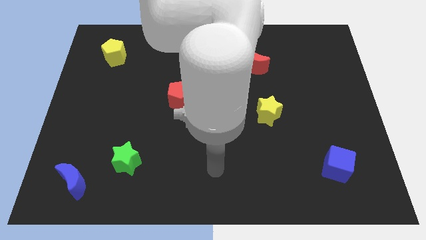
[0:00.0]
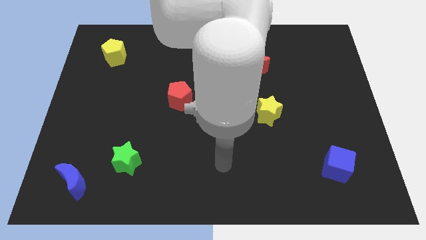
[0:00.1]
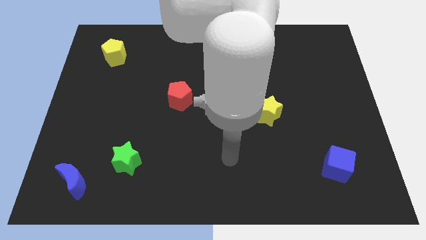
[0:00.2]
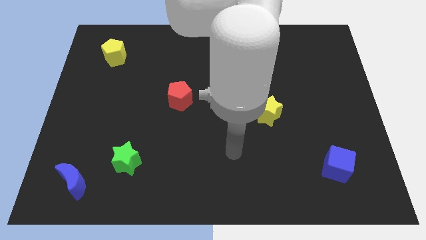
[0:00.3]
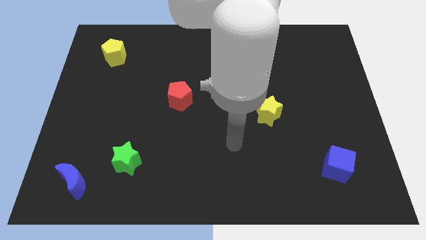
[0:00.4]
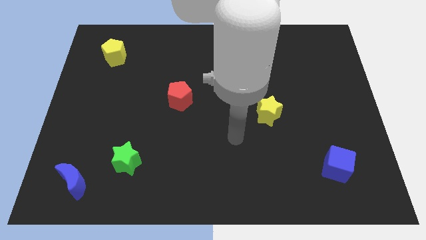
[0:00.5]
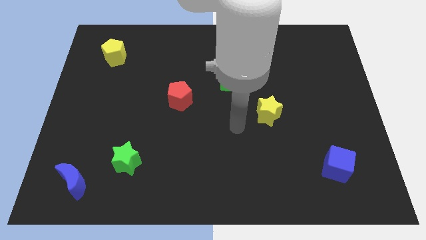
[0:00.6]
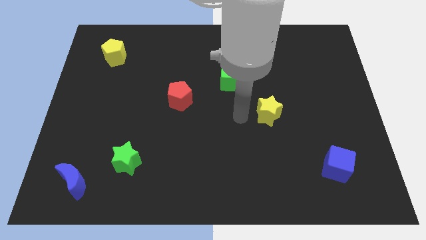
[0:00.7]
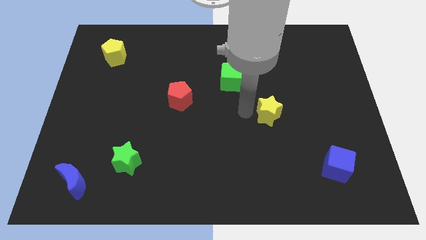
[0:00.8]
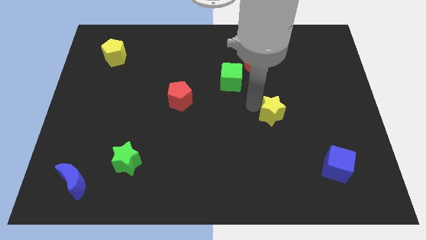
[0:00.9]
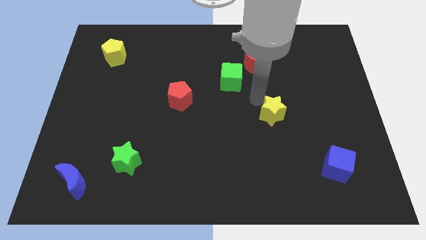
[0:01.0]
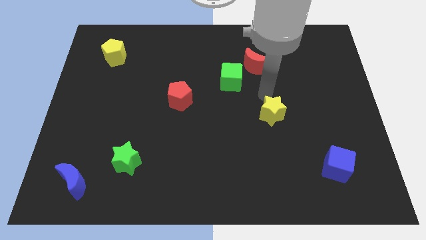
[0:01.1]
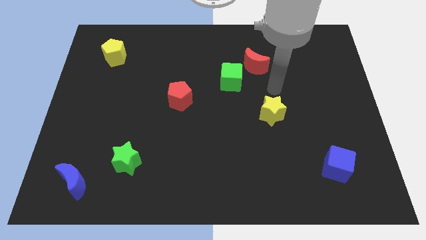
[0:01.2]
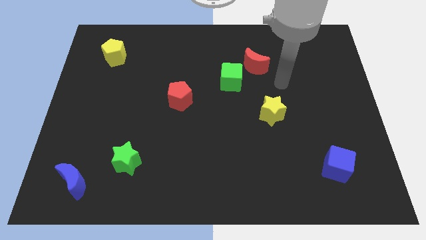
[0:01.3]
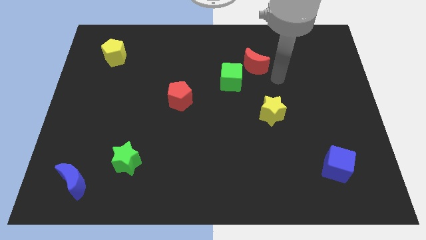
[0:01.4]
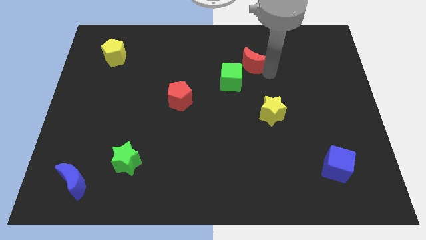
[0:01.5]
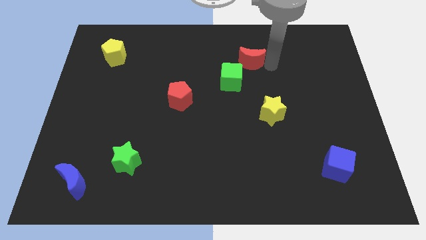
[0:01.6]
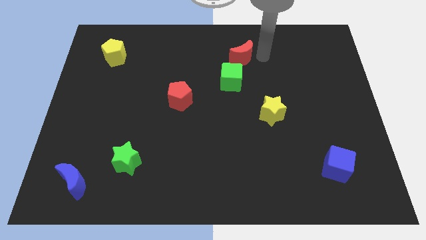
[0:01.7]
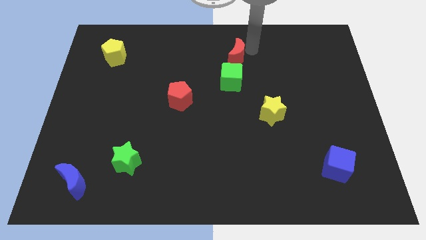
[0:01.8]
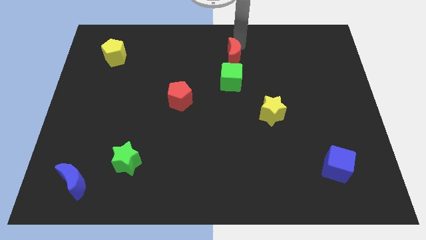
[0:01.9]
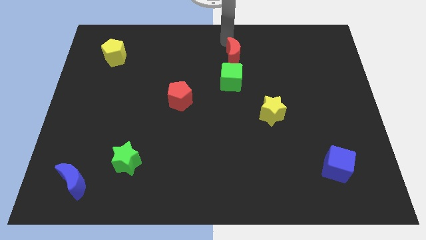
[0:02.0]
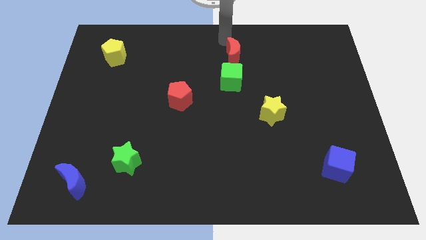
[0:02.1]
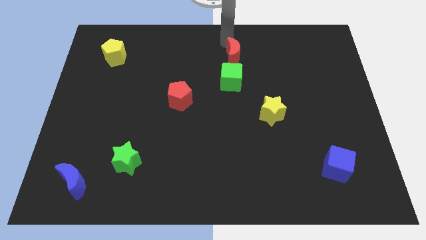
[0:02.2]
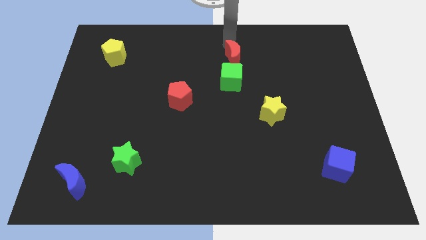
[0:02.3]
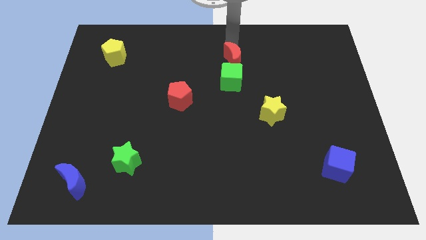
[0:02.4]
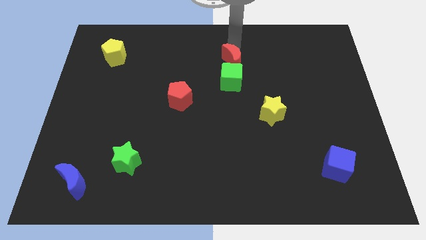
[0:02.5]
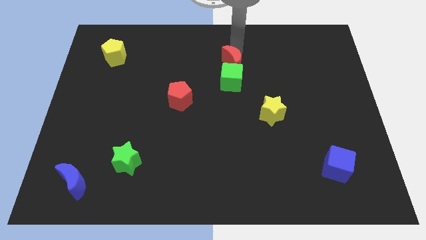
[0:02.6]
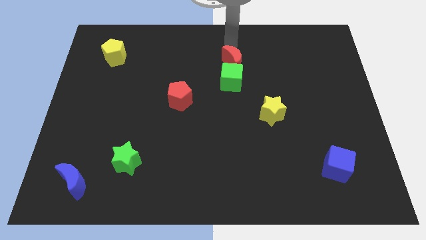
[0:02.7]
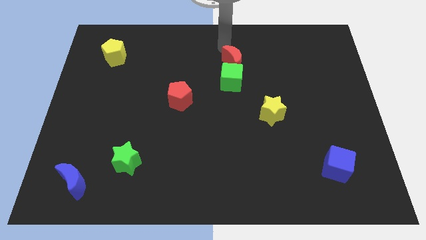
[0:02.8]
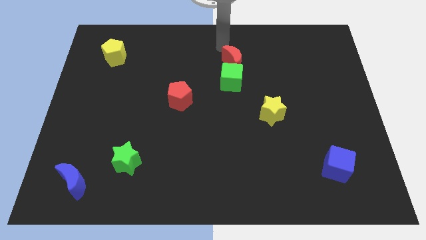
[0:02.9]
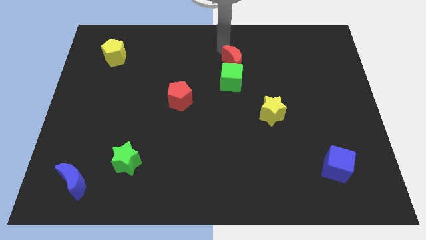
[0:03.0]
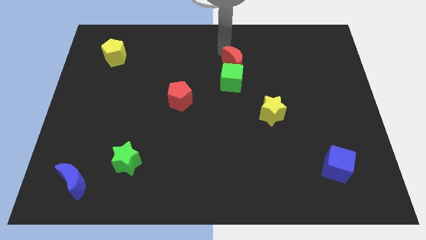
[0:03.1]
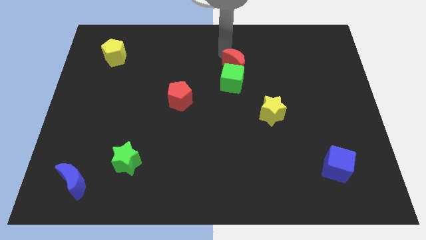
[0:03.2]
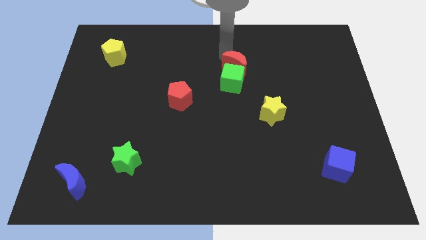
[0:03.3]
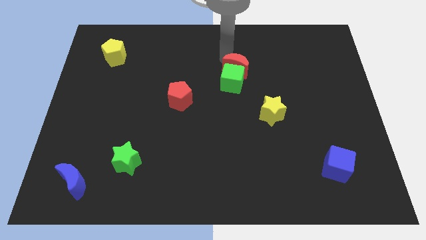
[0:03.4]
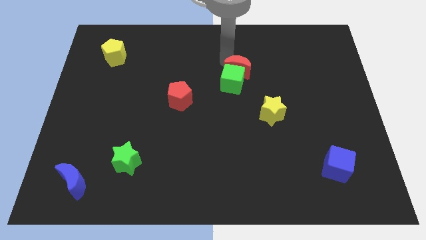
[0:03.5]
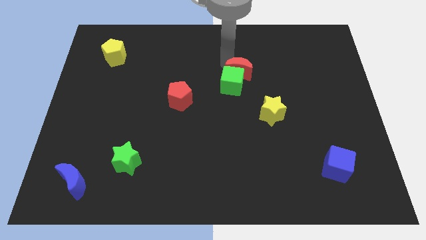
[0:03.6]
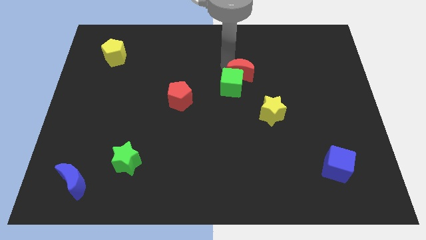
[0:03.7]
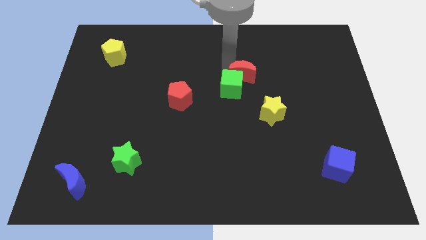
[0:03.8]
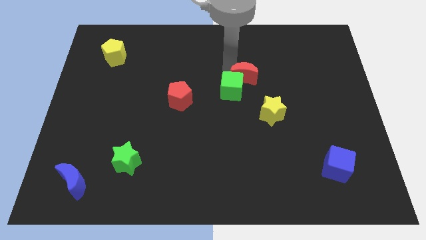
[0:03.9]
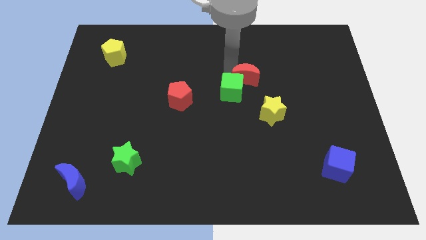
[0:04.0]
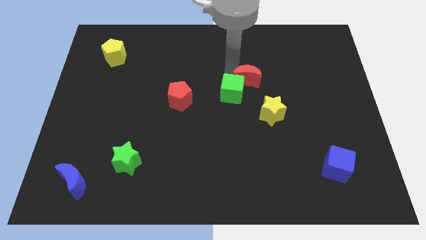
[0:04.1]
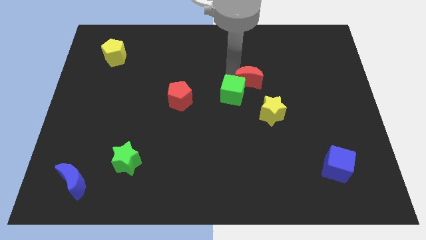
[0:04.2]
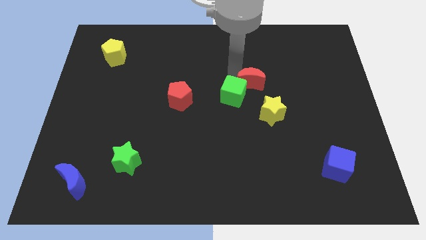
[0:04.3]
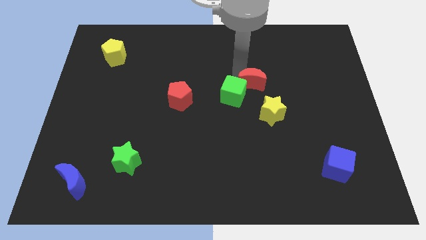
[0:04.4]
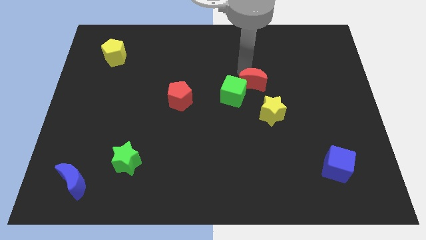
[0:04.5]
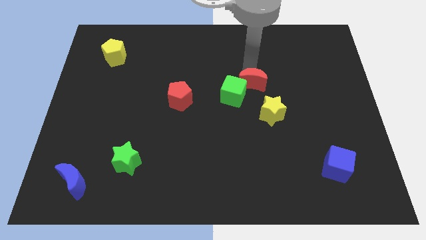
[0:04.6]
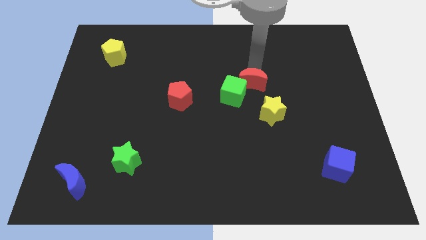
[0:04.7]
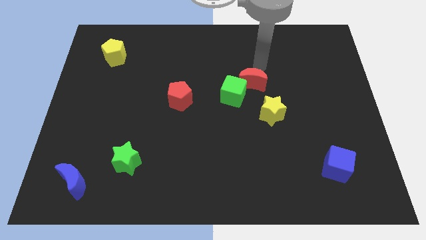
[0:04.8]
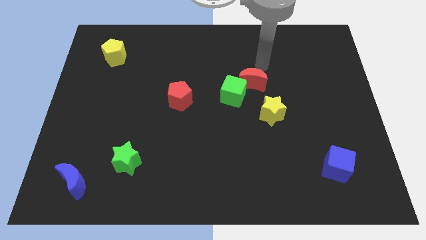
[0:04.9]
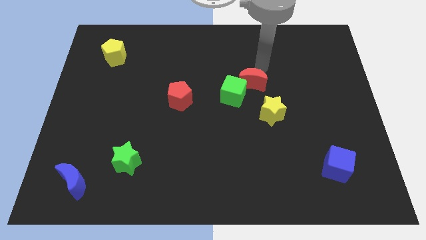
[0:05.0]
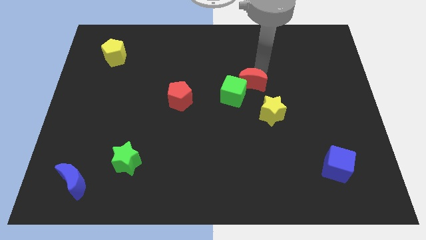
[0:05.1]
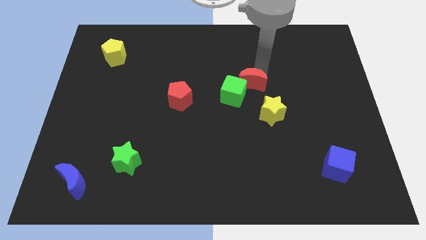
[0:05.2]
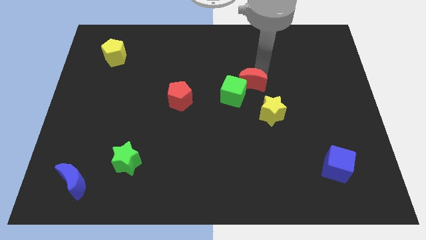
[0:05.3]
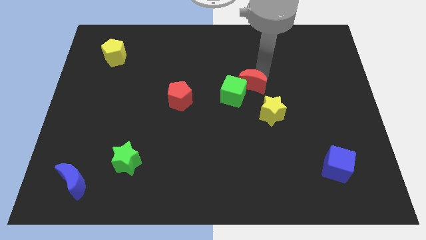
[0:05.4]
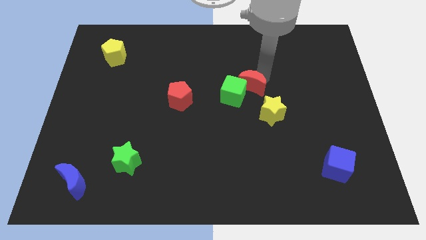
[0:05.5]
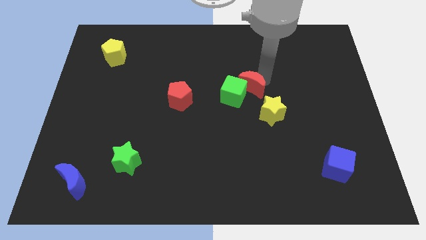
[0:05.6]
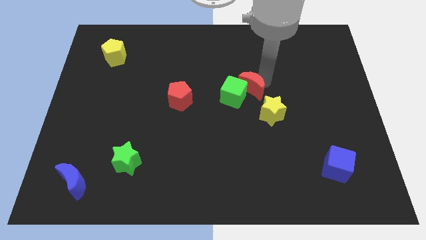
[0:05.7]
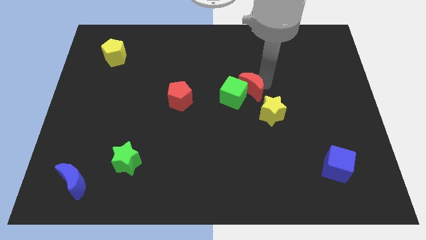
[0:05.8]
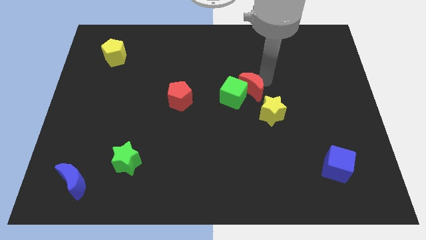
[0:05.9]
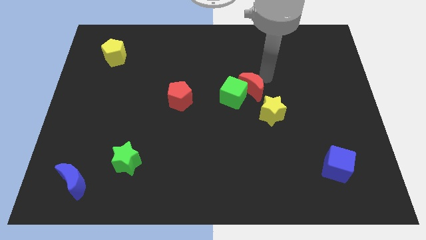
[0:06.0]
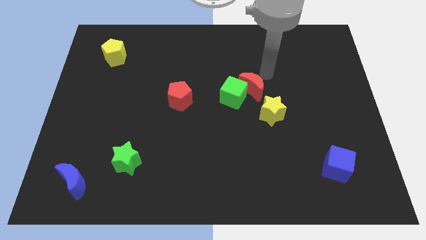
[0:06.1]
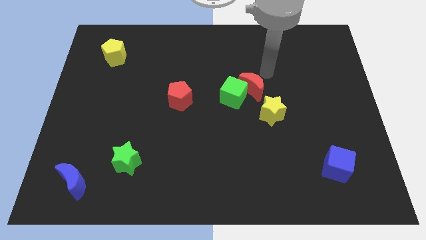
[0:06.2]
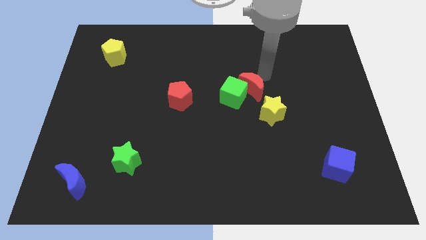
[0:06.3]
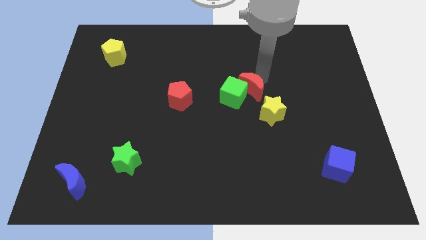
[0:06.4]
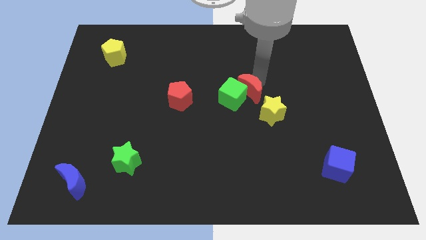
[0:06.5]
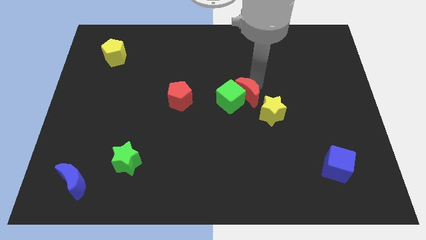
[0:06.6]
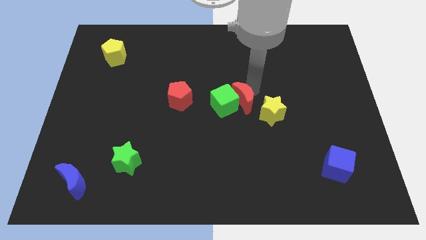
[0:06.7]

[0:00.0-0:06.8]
slide the red moon to the left side of the yellow star
